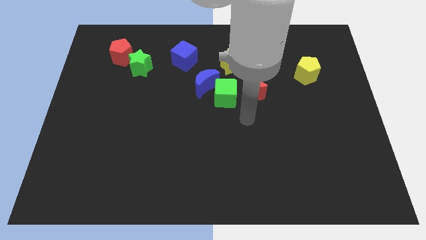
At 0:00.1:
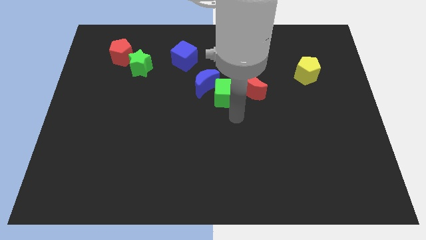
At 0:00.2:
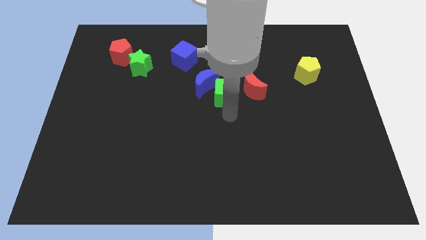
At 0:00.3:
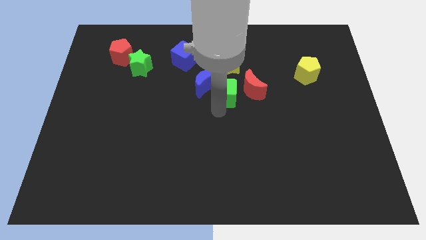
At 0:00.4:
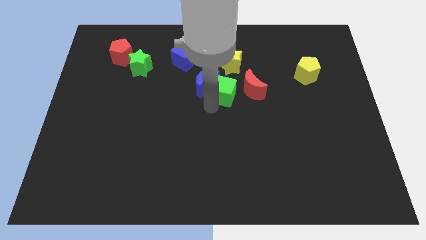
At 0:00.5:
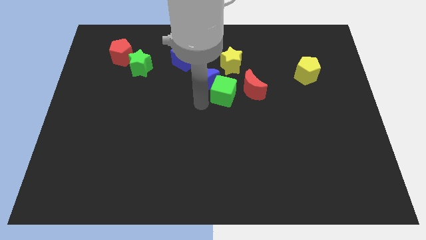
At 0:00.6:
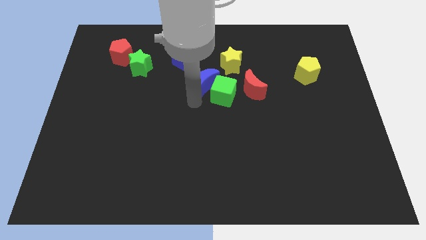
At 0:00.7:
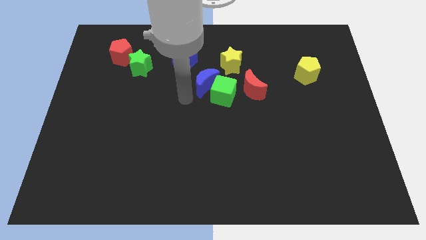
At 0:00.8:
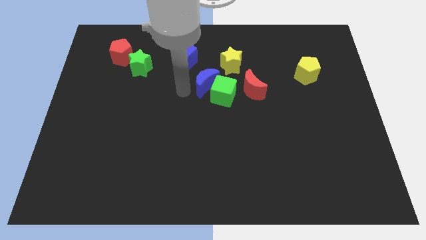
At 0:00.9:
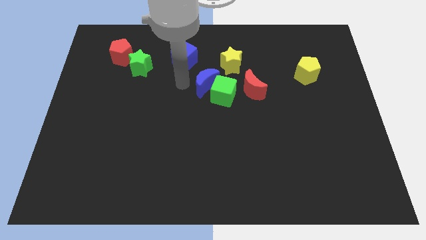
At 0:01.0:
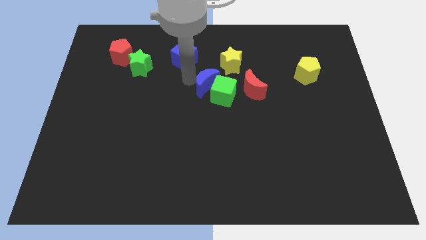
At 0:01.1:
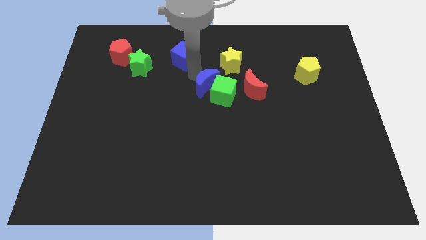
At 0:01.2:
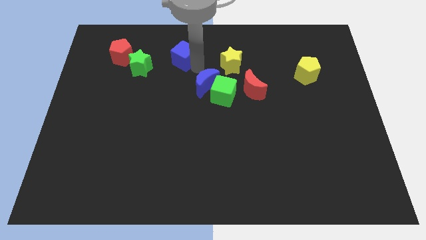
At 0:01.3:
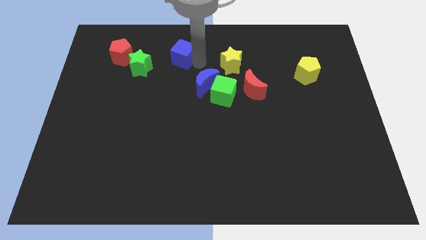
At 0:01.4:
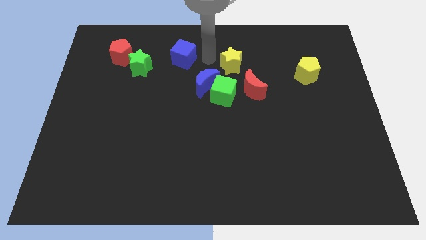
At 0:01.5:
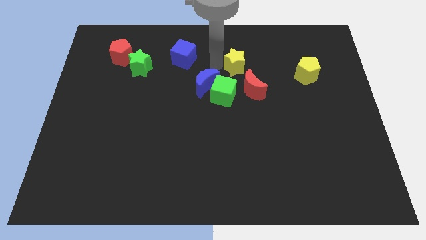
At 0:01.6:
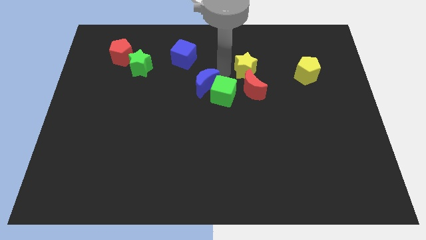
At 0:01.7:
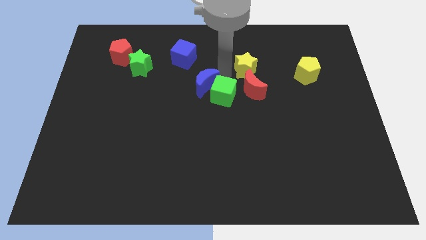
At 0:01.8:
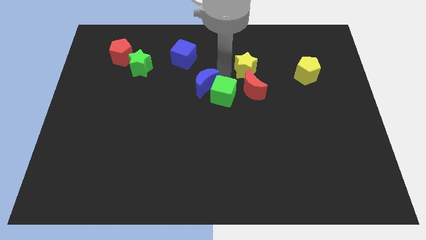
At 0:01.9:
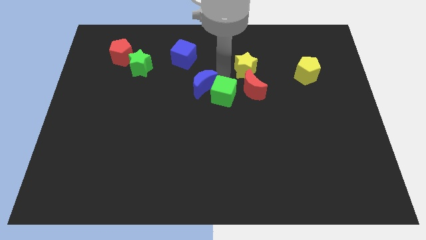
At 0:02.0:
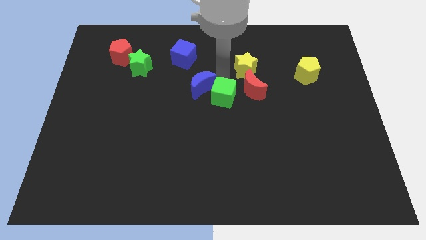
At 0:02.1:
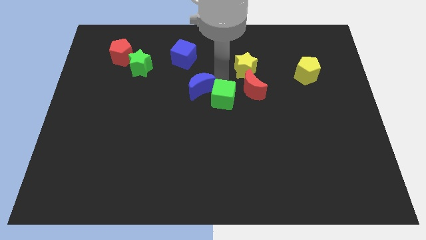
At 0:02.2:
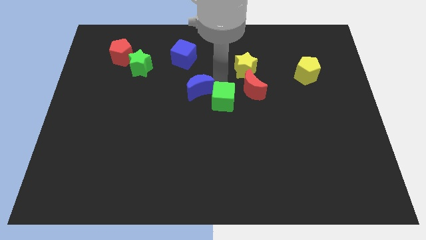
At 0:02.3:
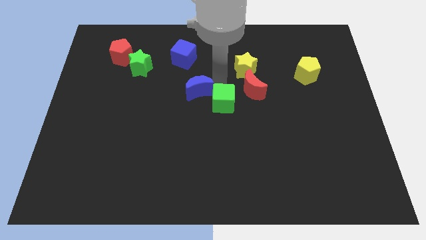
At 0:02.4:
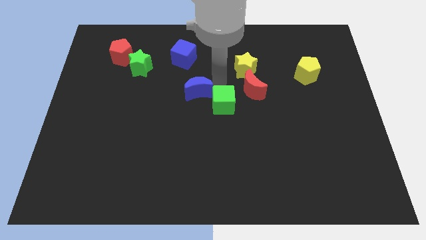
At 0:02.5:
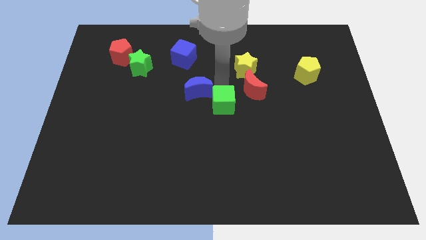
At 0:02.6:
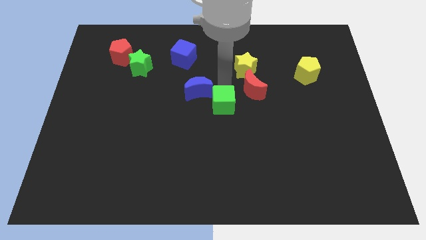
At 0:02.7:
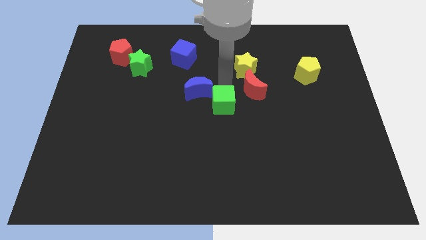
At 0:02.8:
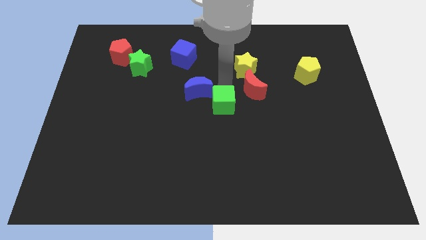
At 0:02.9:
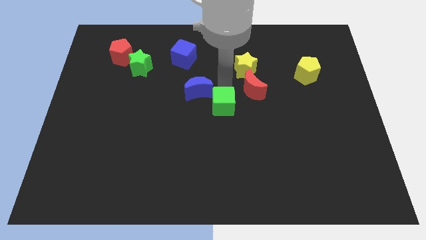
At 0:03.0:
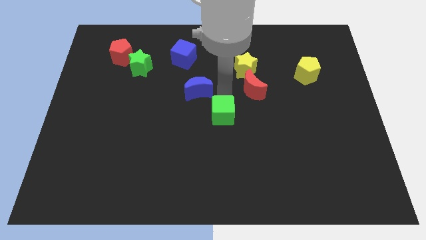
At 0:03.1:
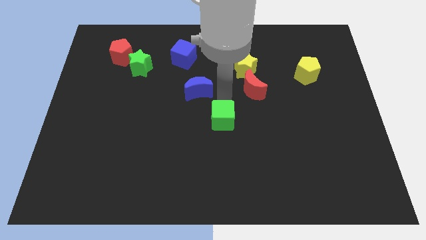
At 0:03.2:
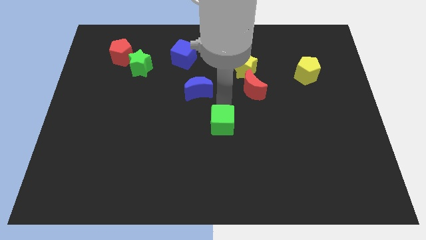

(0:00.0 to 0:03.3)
separate the green cube from the blue moon and red moon

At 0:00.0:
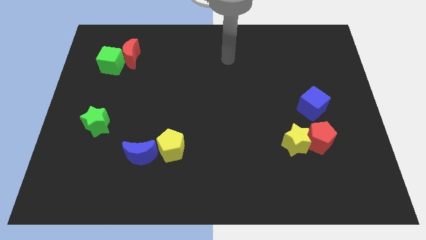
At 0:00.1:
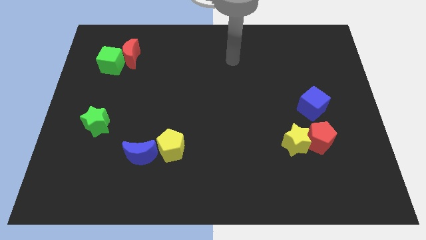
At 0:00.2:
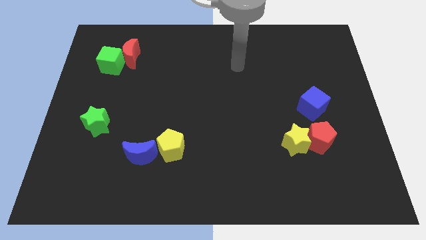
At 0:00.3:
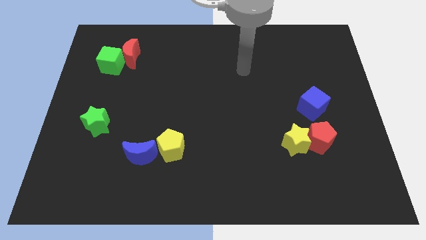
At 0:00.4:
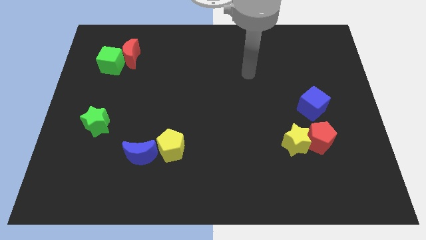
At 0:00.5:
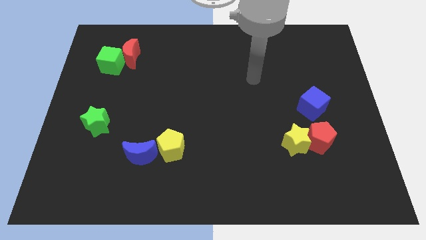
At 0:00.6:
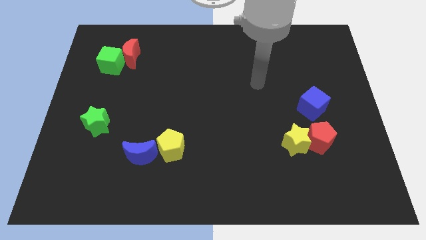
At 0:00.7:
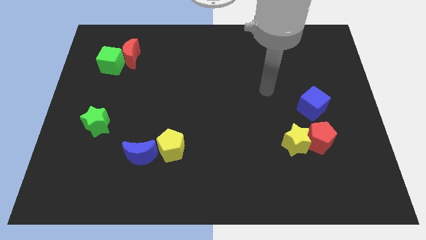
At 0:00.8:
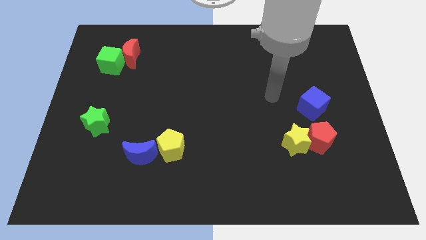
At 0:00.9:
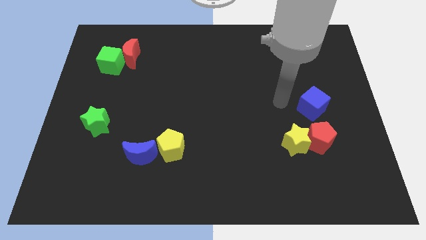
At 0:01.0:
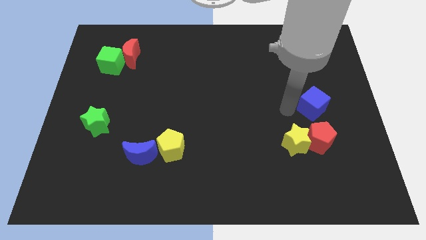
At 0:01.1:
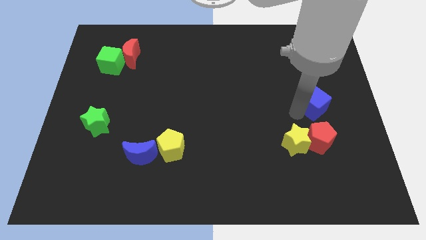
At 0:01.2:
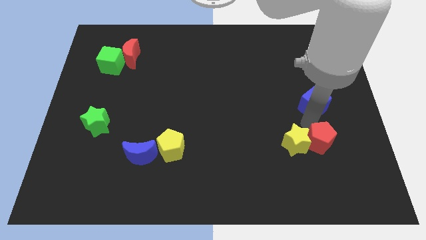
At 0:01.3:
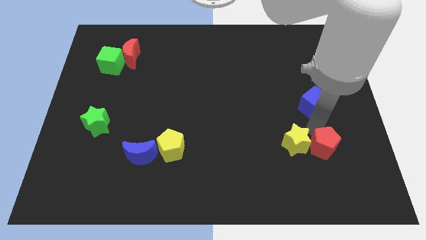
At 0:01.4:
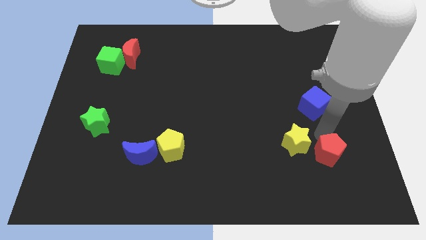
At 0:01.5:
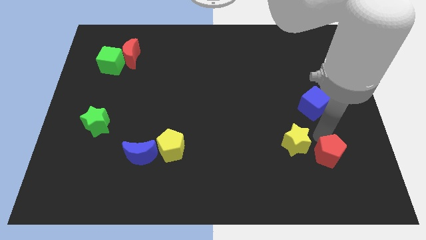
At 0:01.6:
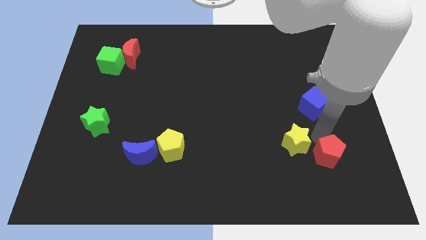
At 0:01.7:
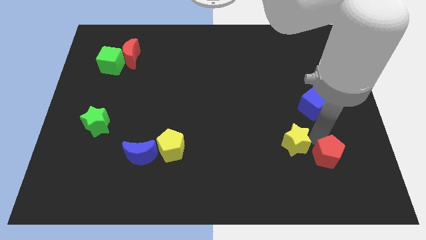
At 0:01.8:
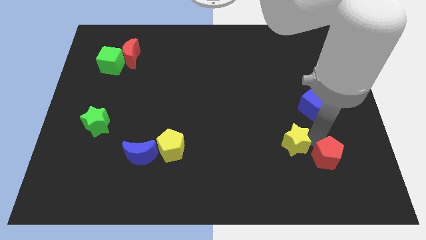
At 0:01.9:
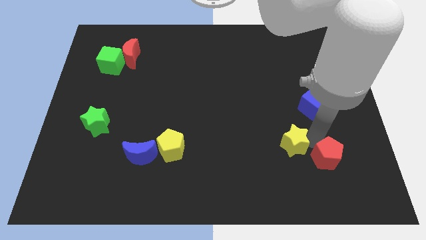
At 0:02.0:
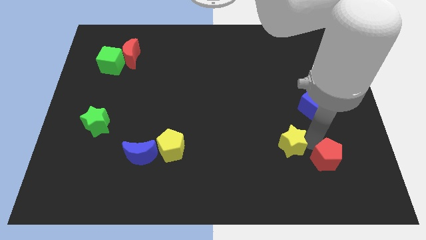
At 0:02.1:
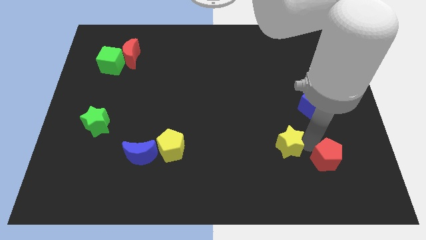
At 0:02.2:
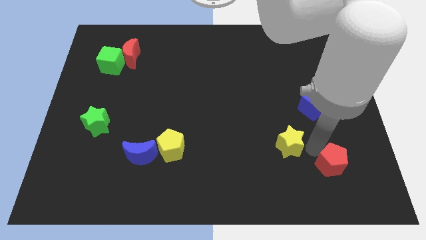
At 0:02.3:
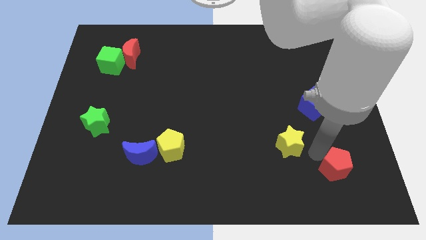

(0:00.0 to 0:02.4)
pull the yellow star apart from the red pentagon

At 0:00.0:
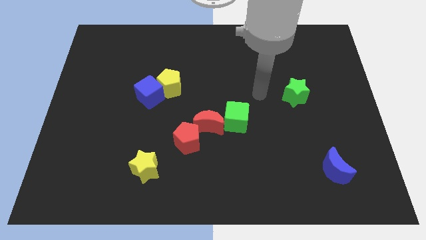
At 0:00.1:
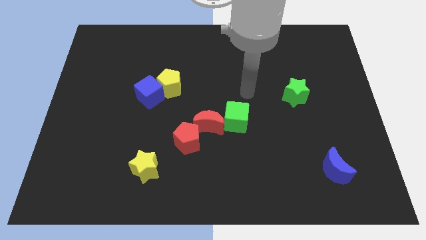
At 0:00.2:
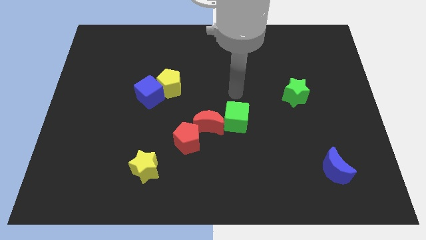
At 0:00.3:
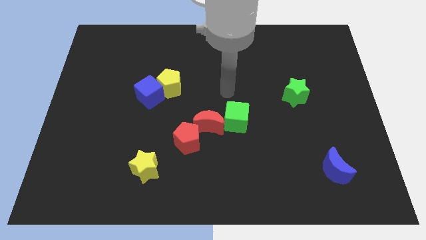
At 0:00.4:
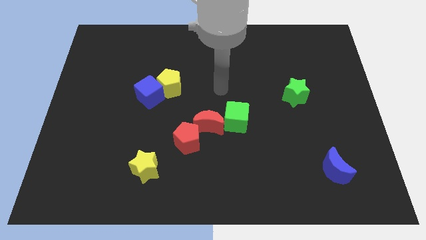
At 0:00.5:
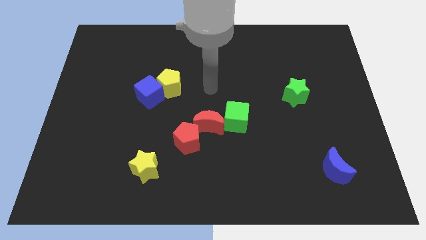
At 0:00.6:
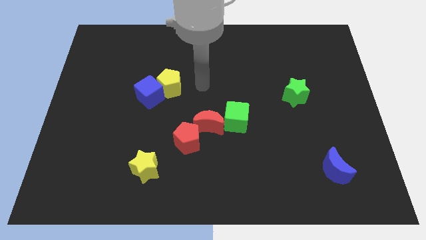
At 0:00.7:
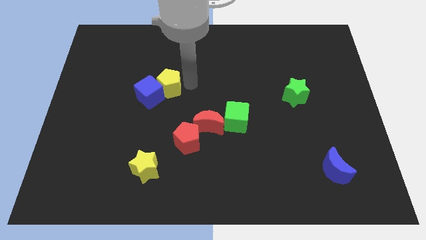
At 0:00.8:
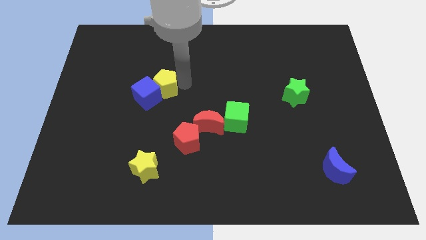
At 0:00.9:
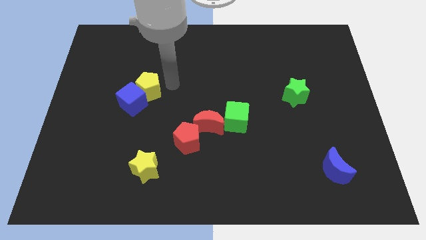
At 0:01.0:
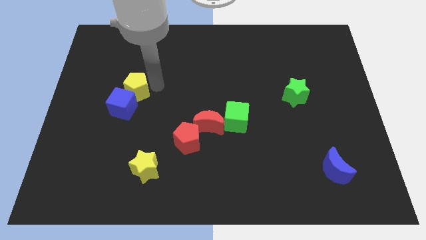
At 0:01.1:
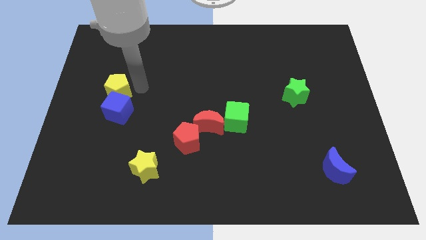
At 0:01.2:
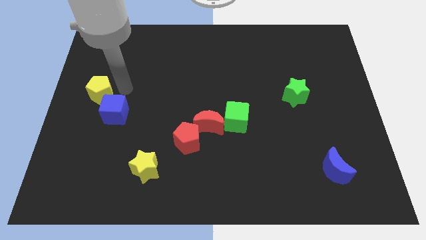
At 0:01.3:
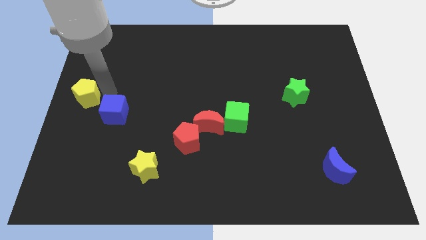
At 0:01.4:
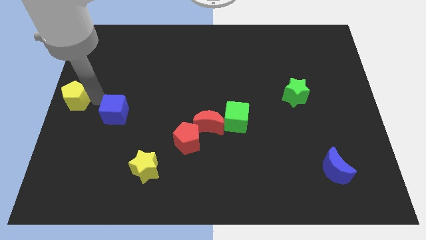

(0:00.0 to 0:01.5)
move the blue cube away from the yellow pentagon

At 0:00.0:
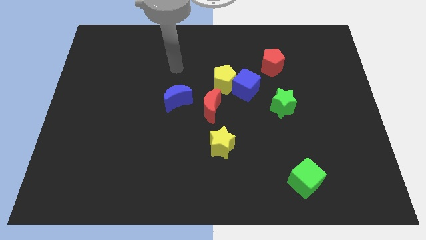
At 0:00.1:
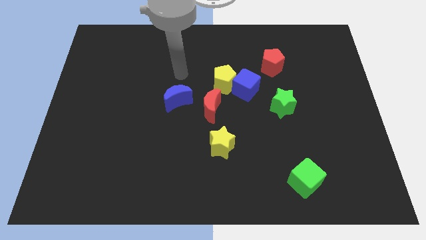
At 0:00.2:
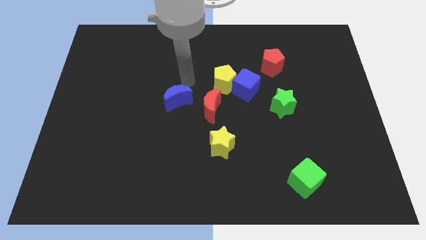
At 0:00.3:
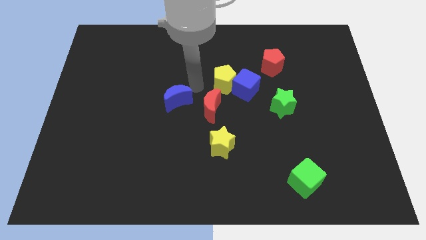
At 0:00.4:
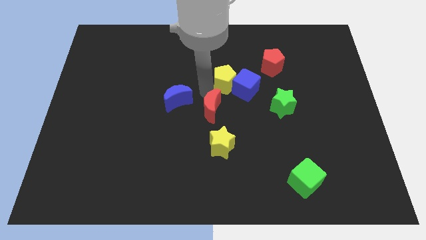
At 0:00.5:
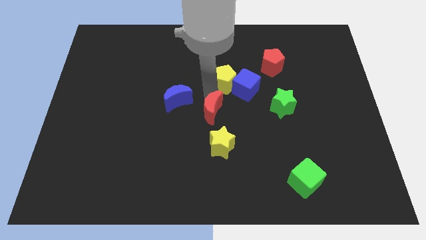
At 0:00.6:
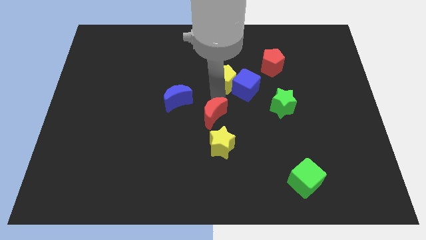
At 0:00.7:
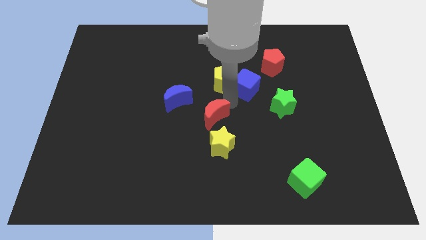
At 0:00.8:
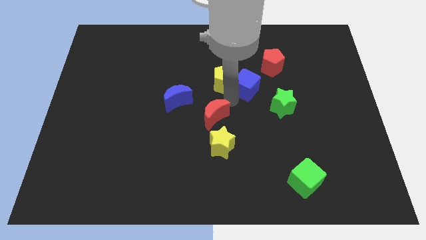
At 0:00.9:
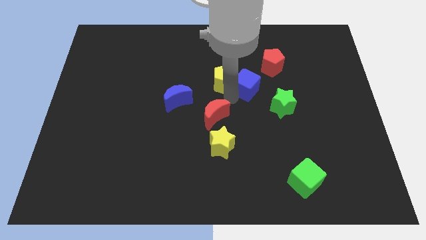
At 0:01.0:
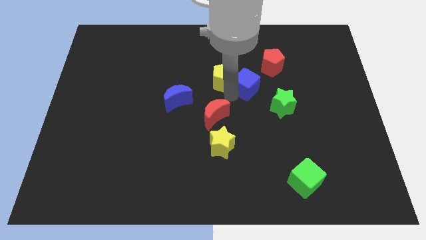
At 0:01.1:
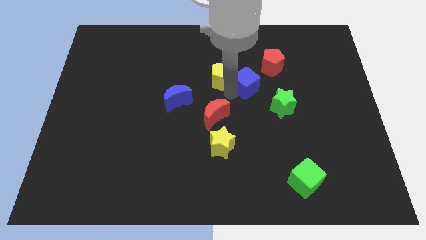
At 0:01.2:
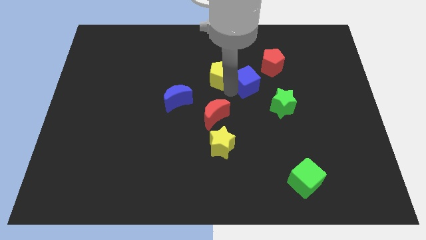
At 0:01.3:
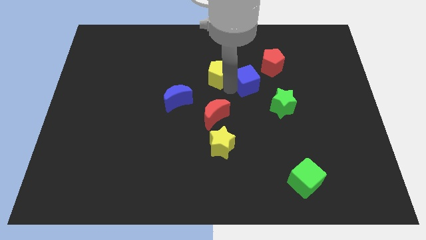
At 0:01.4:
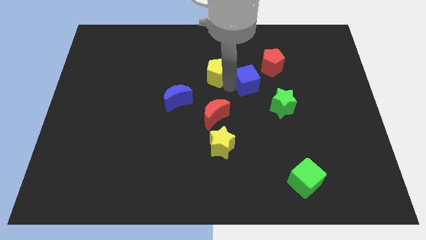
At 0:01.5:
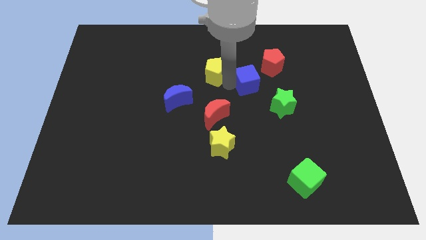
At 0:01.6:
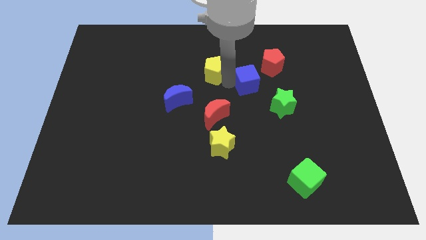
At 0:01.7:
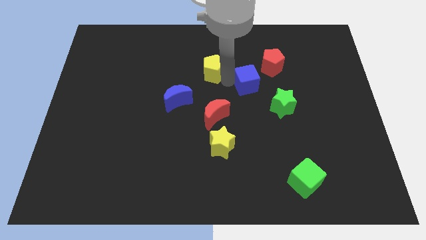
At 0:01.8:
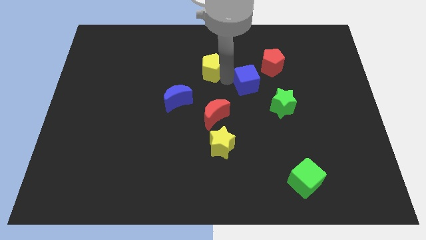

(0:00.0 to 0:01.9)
move the yellow pentagon away from the blue cube and red moon

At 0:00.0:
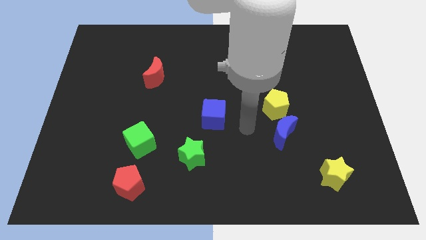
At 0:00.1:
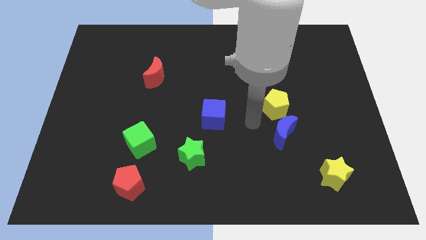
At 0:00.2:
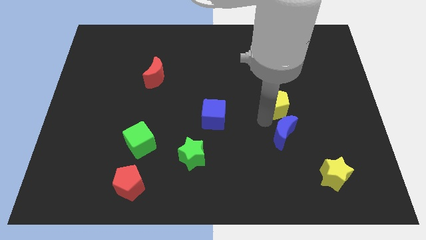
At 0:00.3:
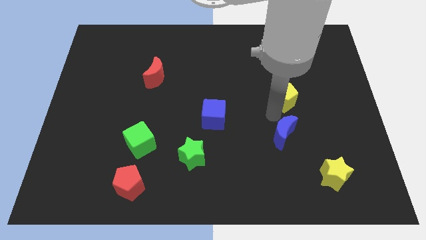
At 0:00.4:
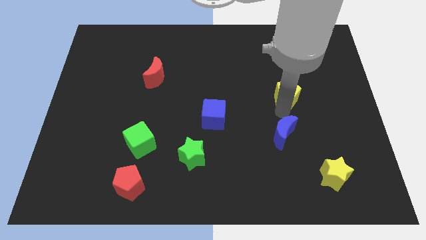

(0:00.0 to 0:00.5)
separate the blue moon from the yellow pentagon
